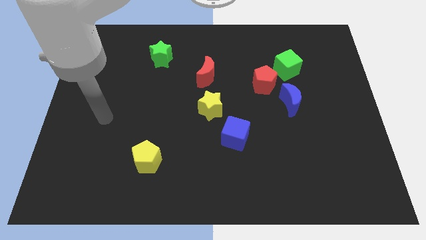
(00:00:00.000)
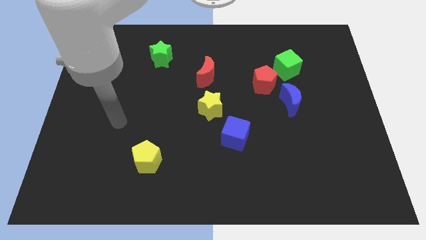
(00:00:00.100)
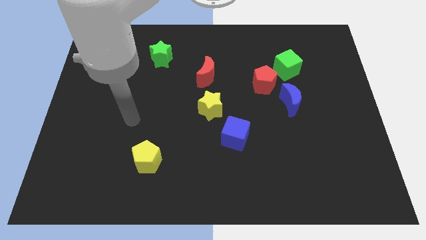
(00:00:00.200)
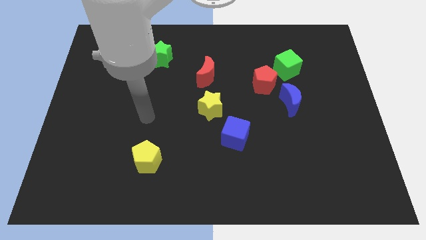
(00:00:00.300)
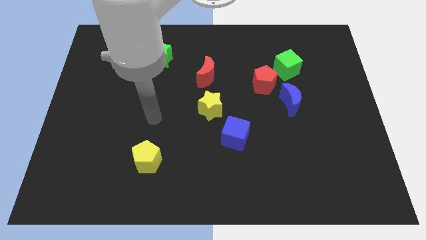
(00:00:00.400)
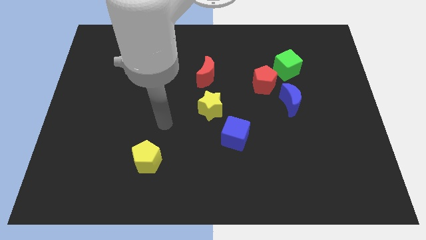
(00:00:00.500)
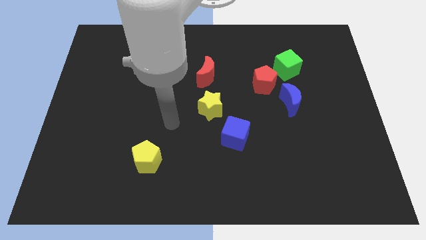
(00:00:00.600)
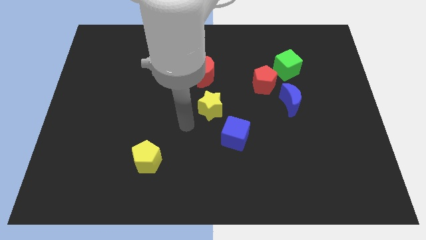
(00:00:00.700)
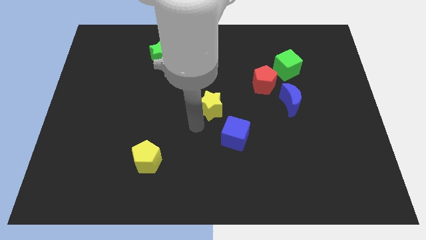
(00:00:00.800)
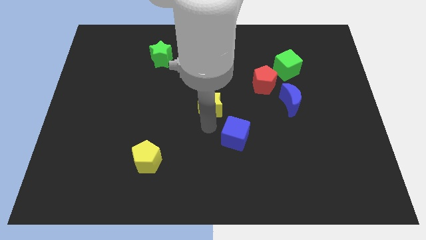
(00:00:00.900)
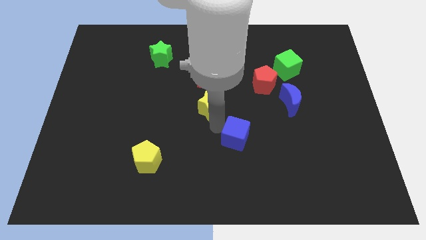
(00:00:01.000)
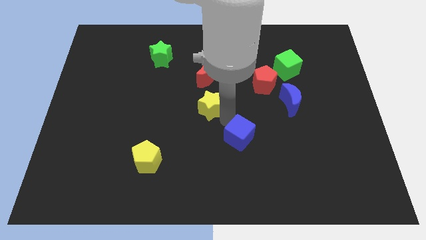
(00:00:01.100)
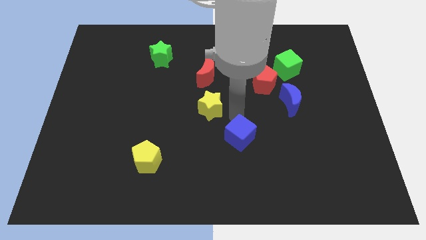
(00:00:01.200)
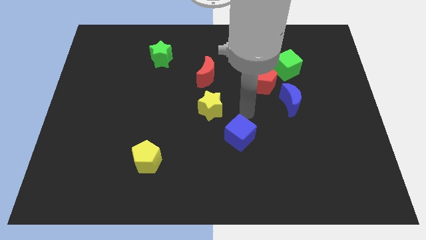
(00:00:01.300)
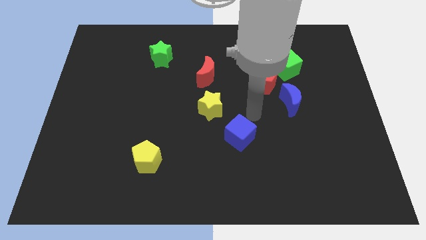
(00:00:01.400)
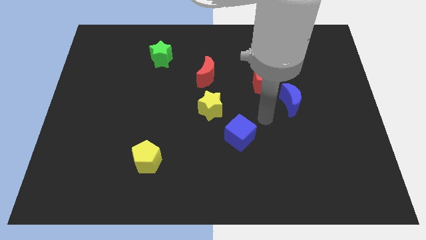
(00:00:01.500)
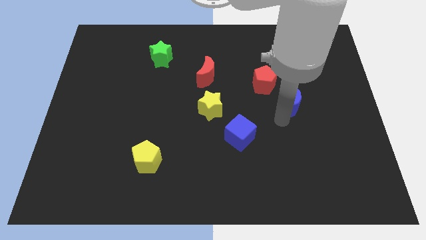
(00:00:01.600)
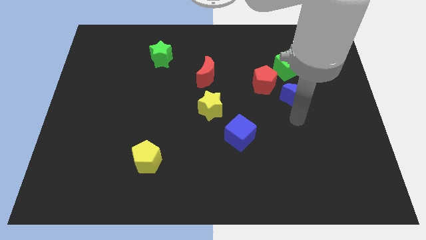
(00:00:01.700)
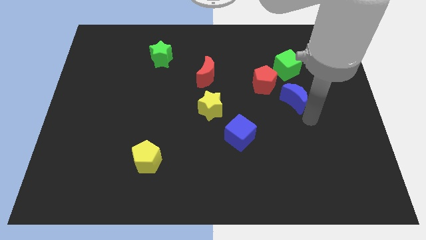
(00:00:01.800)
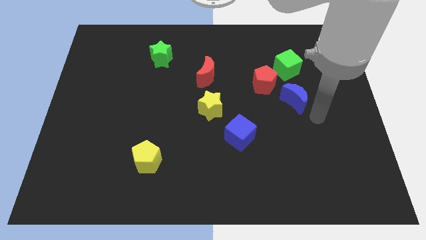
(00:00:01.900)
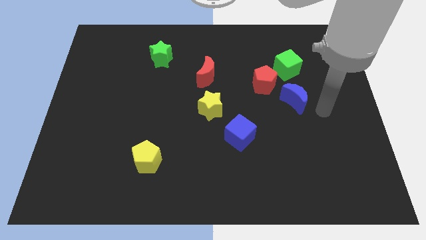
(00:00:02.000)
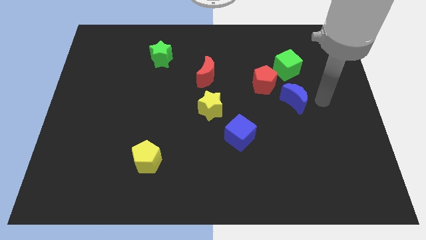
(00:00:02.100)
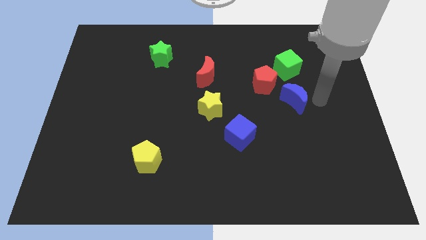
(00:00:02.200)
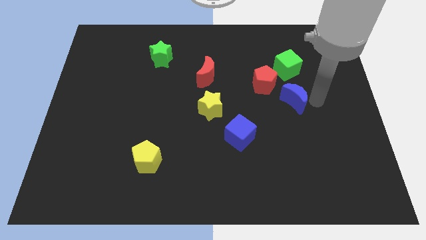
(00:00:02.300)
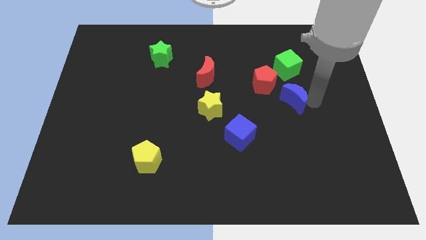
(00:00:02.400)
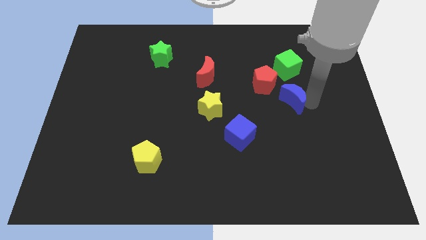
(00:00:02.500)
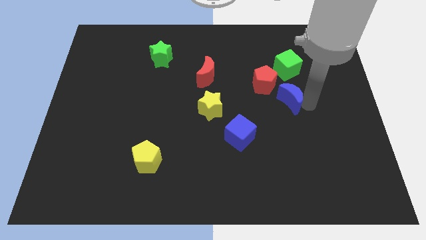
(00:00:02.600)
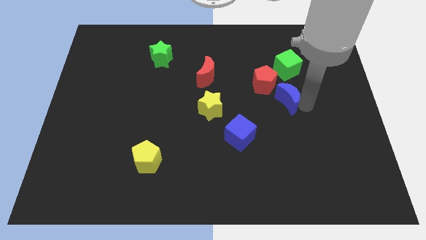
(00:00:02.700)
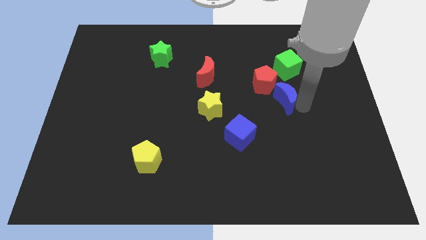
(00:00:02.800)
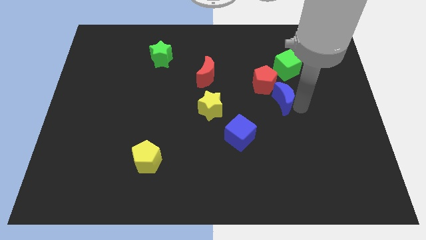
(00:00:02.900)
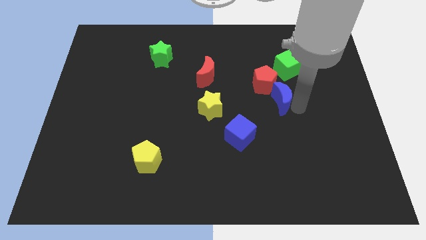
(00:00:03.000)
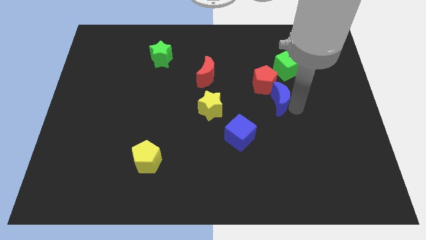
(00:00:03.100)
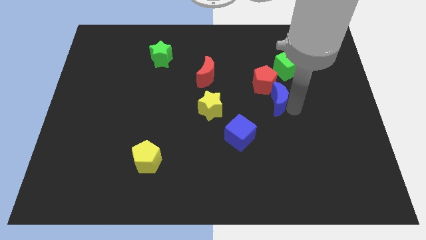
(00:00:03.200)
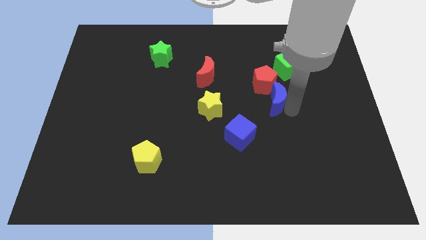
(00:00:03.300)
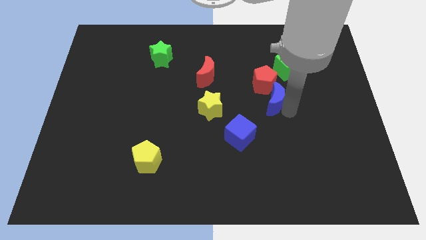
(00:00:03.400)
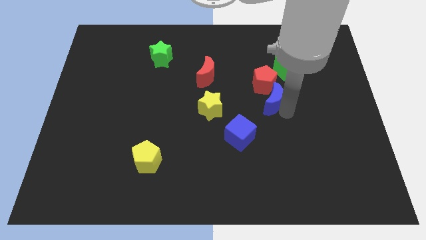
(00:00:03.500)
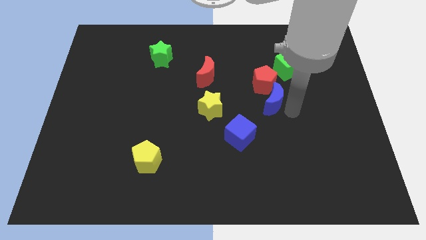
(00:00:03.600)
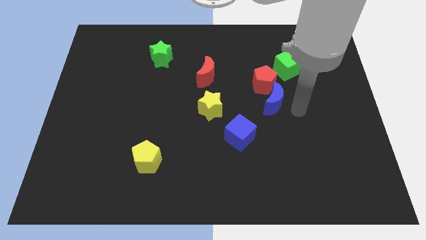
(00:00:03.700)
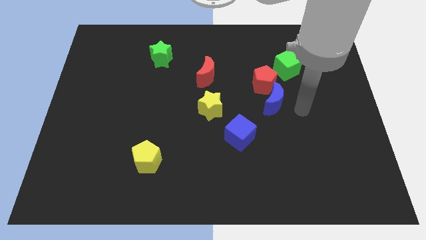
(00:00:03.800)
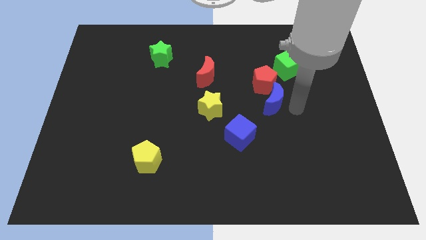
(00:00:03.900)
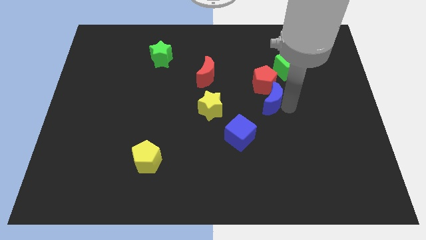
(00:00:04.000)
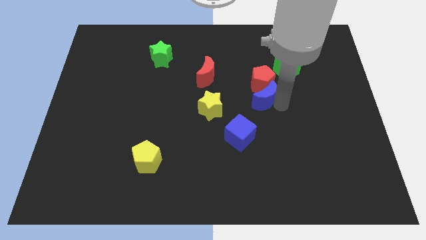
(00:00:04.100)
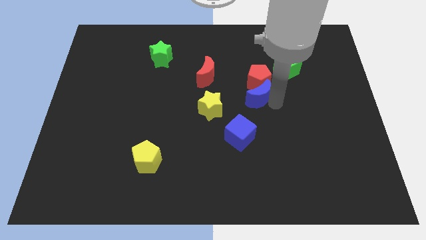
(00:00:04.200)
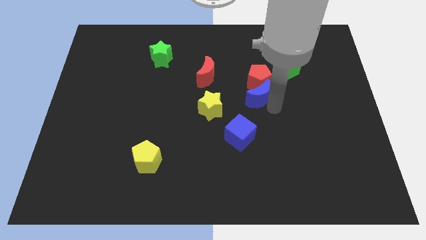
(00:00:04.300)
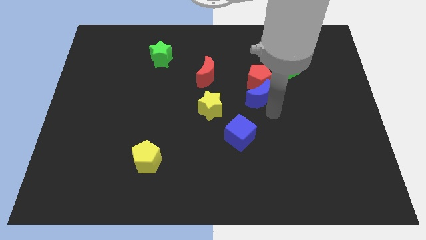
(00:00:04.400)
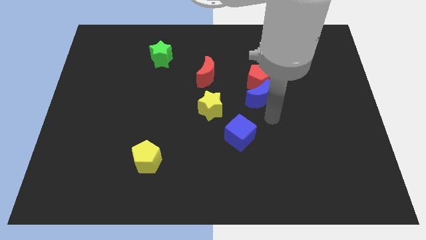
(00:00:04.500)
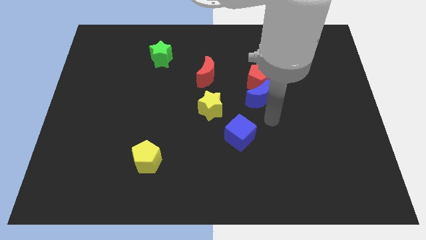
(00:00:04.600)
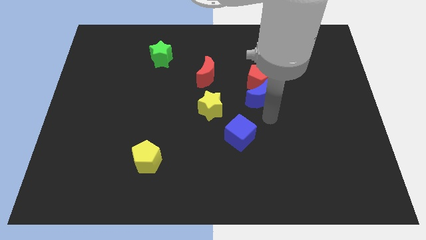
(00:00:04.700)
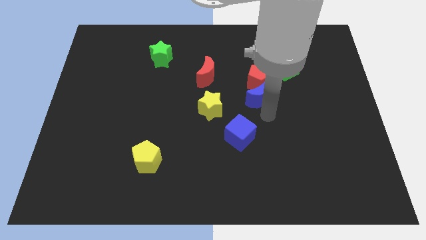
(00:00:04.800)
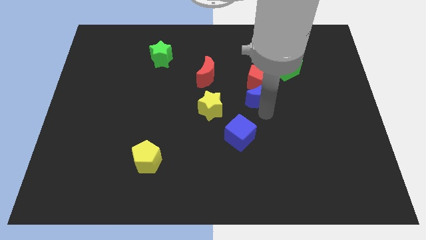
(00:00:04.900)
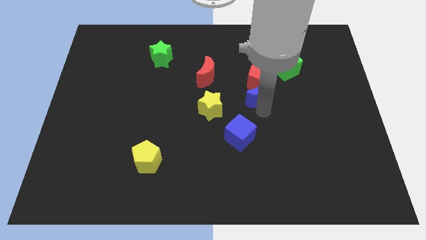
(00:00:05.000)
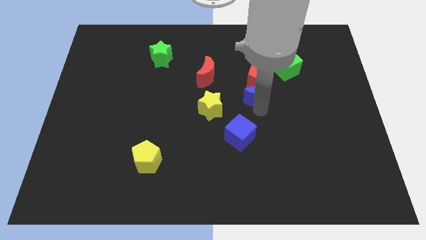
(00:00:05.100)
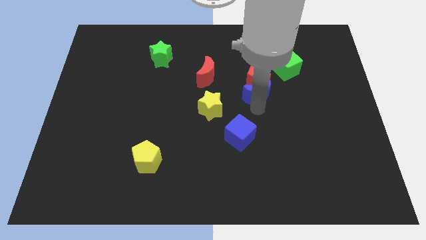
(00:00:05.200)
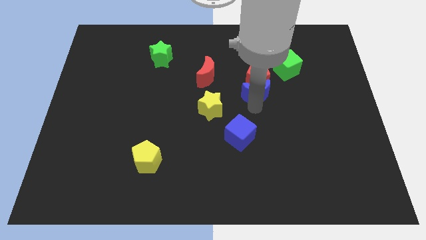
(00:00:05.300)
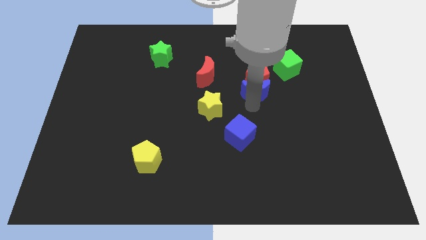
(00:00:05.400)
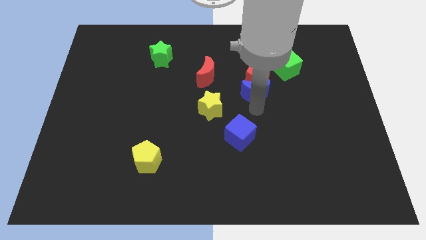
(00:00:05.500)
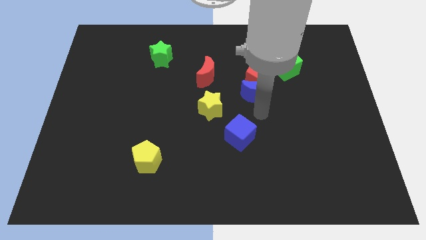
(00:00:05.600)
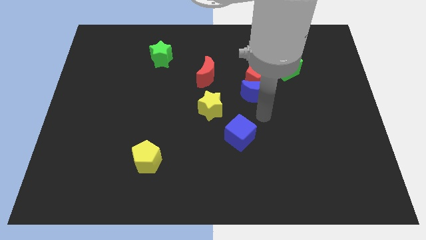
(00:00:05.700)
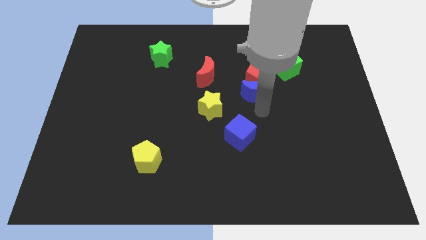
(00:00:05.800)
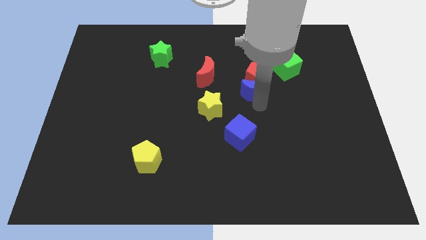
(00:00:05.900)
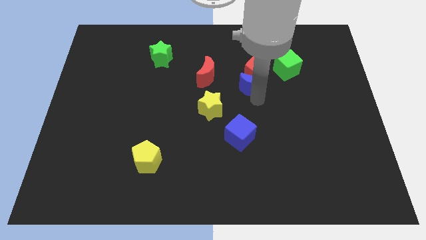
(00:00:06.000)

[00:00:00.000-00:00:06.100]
move the blue moon to the right side of the red moon

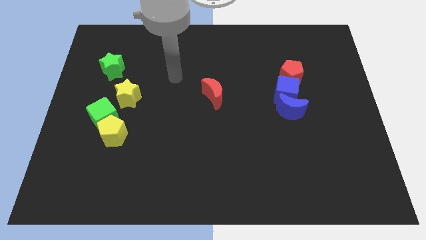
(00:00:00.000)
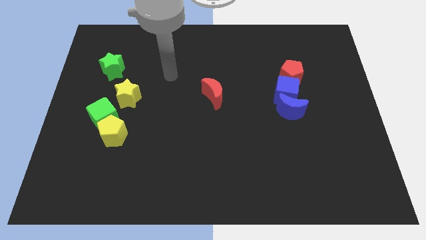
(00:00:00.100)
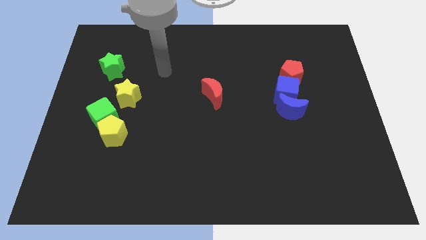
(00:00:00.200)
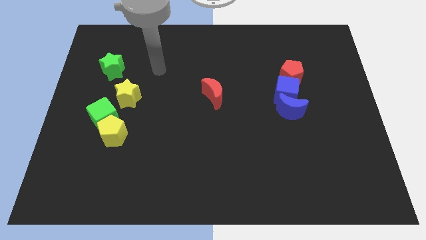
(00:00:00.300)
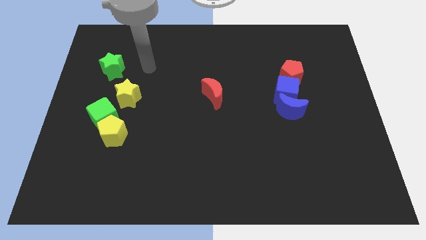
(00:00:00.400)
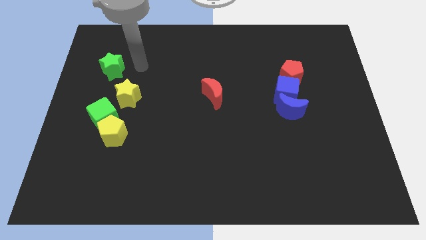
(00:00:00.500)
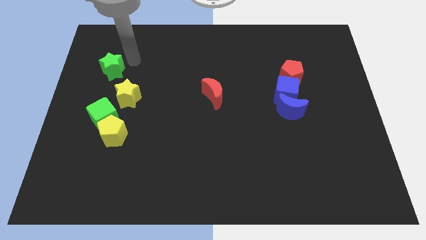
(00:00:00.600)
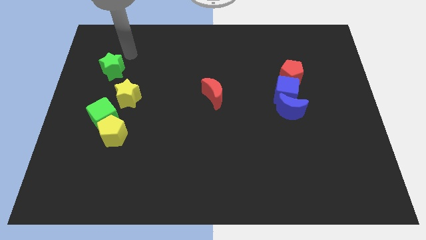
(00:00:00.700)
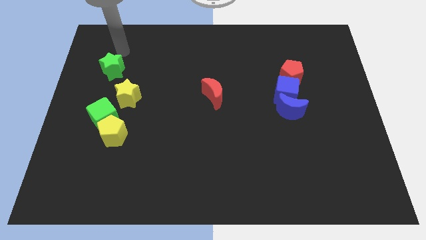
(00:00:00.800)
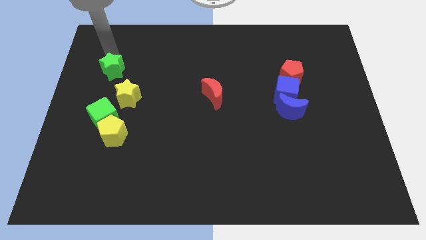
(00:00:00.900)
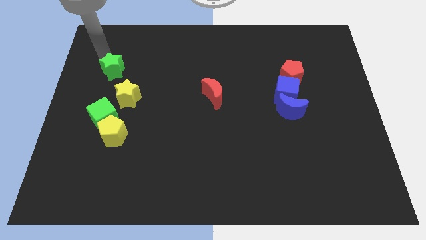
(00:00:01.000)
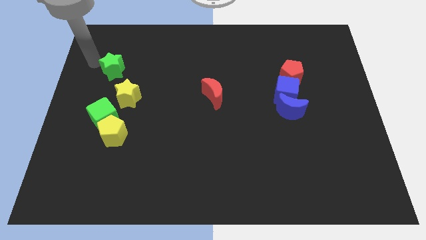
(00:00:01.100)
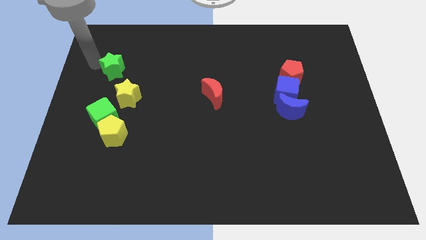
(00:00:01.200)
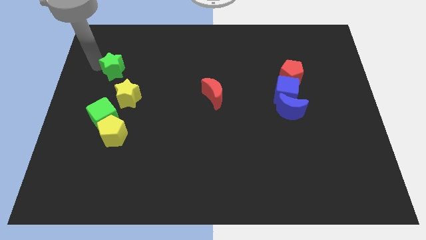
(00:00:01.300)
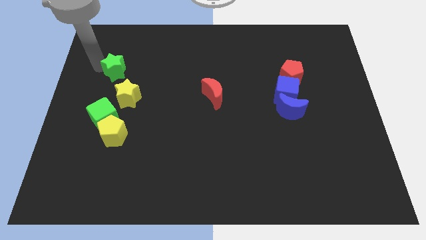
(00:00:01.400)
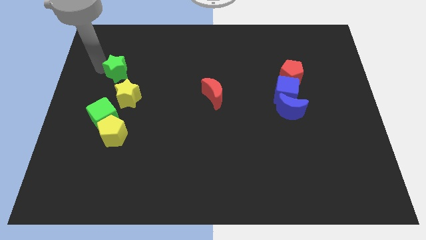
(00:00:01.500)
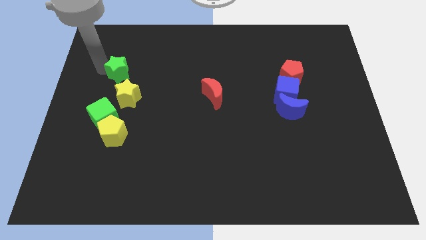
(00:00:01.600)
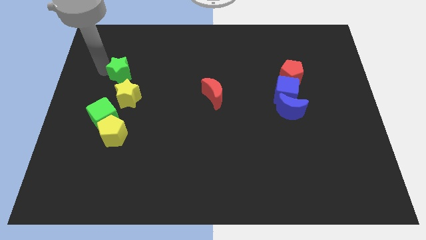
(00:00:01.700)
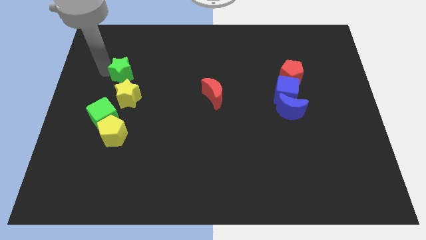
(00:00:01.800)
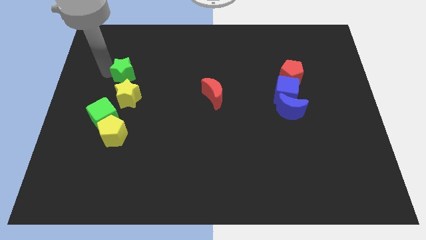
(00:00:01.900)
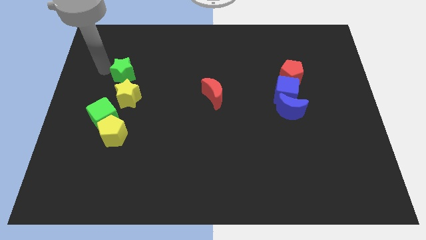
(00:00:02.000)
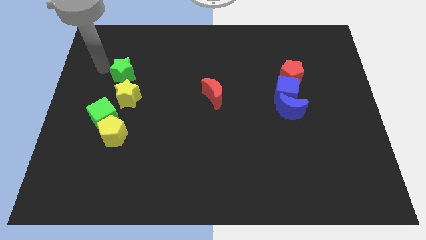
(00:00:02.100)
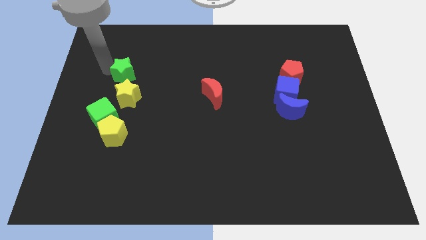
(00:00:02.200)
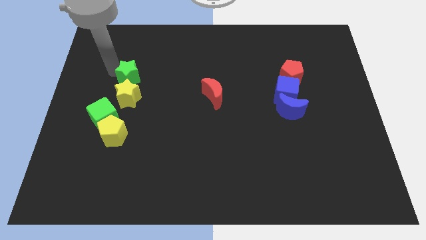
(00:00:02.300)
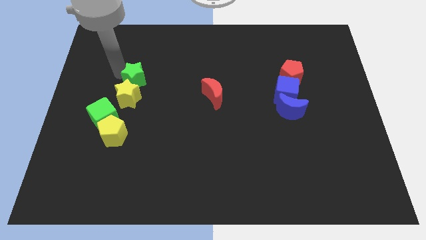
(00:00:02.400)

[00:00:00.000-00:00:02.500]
slide the green star to the top right of the yellow star
